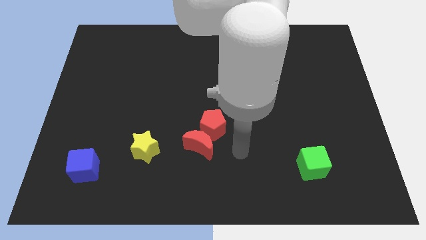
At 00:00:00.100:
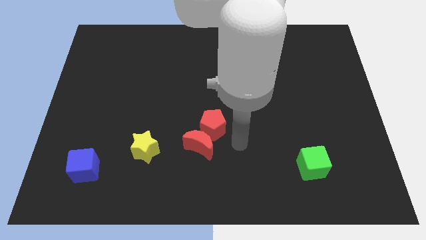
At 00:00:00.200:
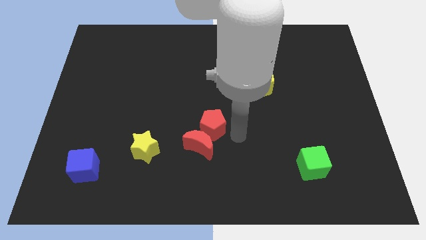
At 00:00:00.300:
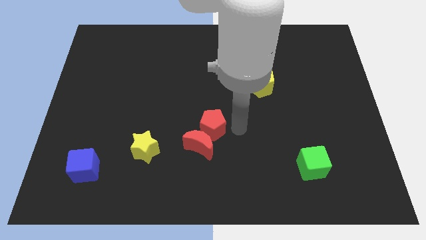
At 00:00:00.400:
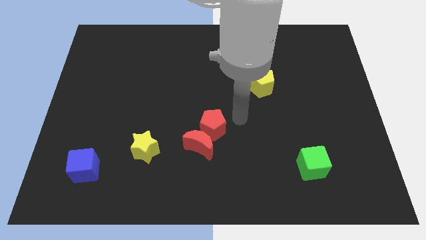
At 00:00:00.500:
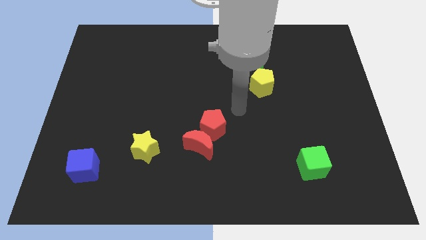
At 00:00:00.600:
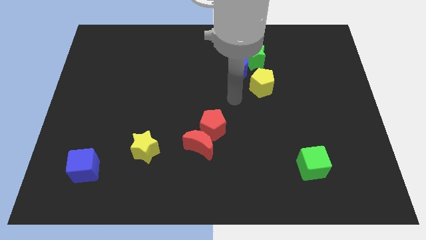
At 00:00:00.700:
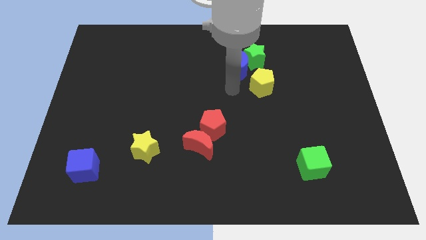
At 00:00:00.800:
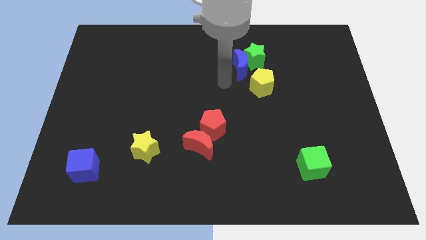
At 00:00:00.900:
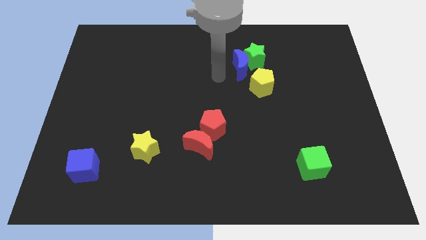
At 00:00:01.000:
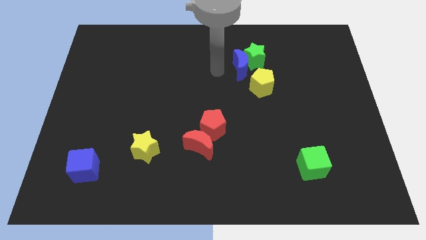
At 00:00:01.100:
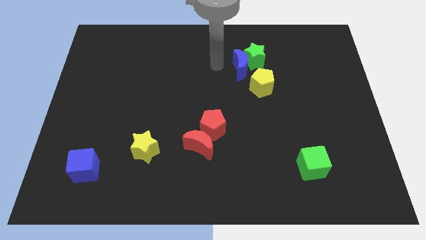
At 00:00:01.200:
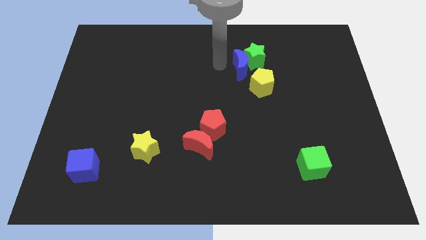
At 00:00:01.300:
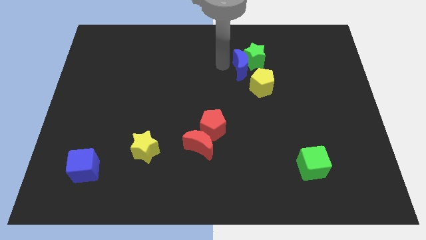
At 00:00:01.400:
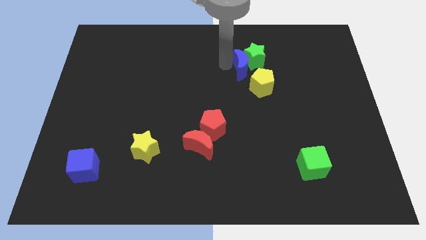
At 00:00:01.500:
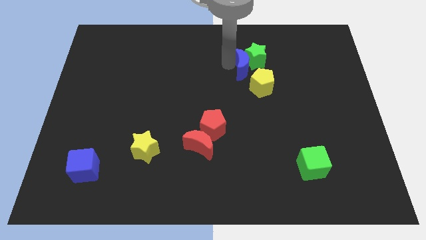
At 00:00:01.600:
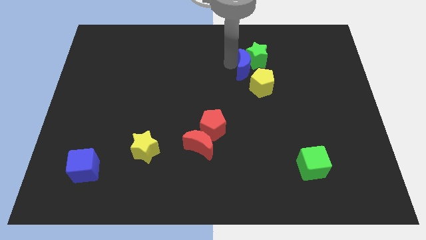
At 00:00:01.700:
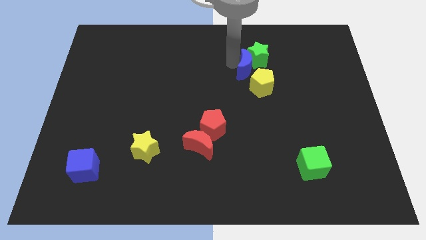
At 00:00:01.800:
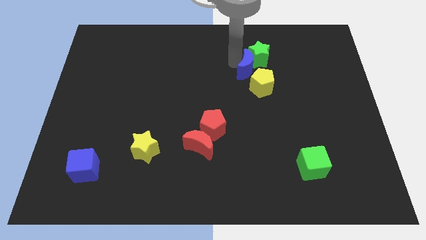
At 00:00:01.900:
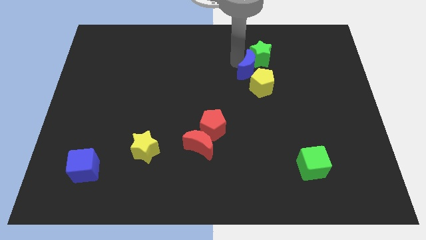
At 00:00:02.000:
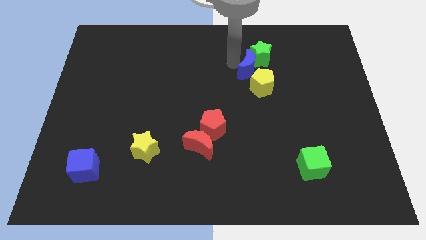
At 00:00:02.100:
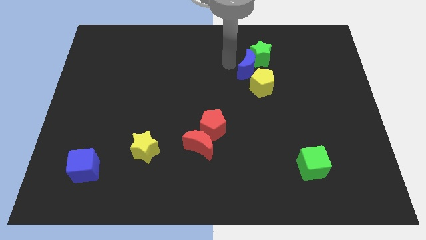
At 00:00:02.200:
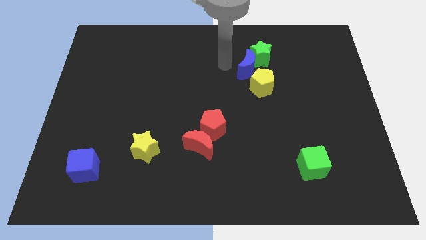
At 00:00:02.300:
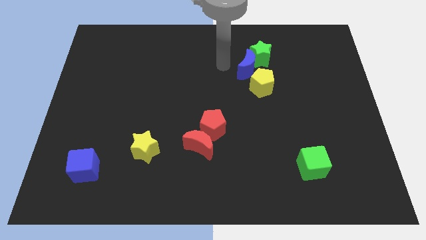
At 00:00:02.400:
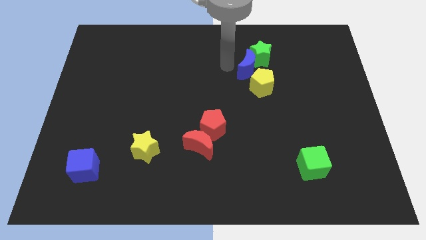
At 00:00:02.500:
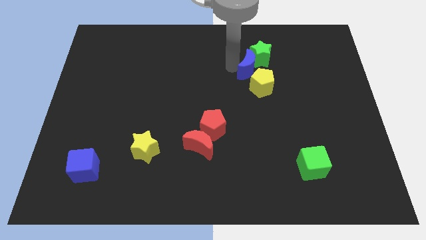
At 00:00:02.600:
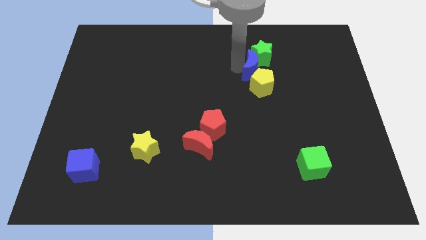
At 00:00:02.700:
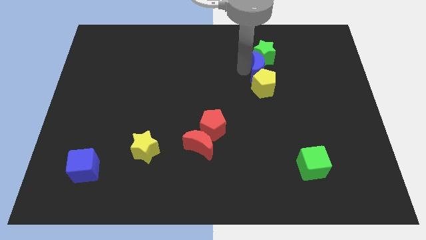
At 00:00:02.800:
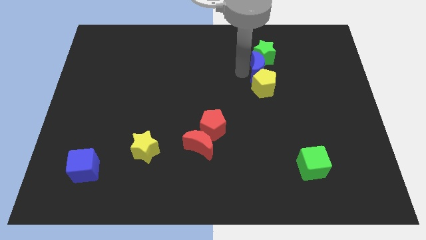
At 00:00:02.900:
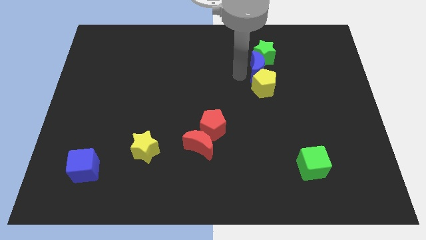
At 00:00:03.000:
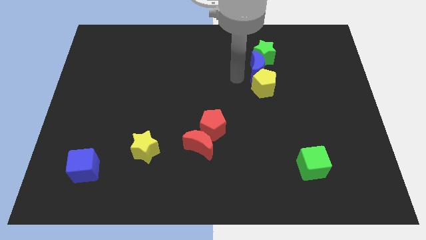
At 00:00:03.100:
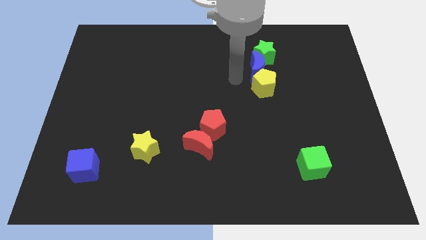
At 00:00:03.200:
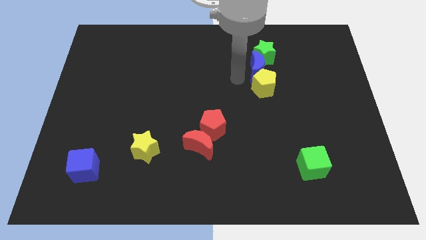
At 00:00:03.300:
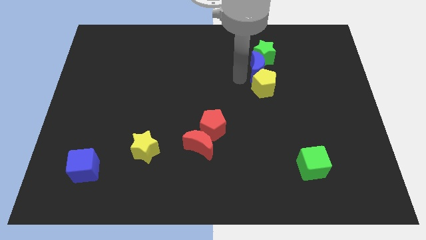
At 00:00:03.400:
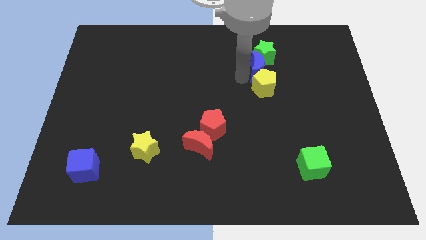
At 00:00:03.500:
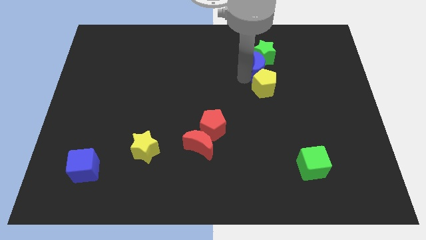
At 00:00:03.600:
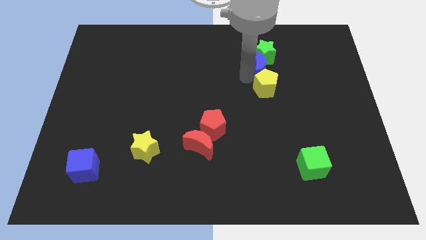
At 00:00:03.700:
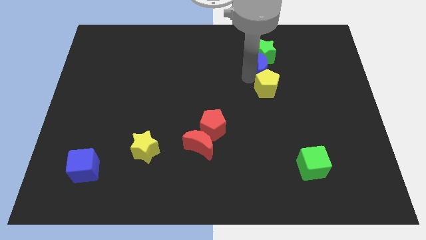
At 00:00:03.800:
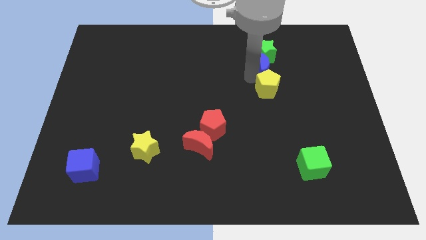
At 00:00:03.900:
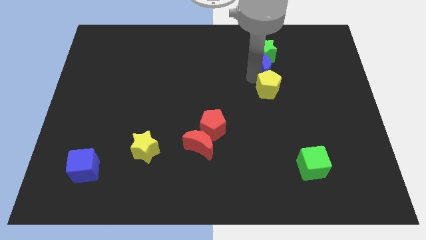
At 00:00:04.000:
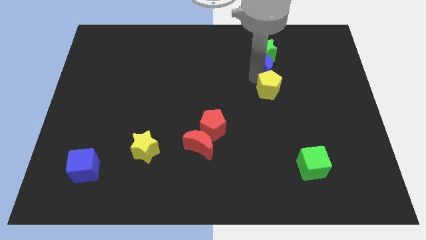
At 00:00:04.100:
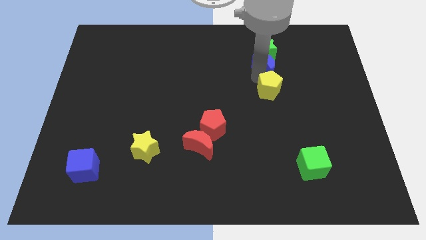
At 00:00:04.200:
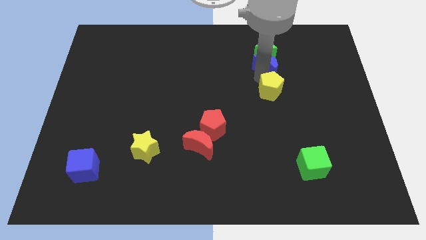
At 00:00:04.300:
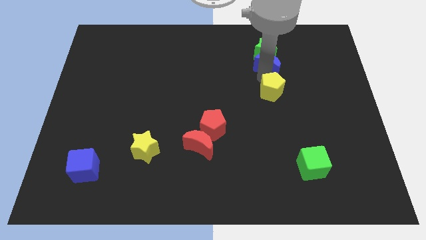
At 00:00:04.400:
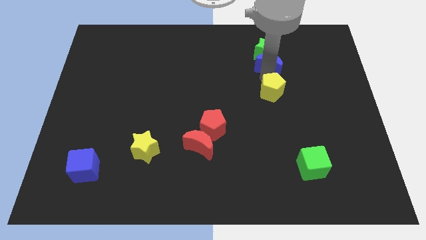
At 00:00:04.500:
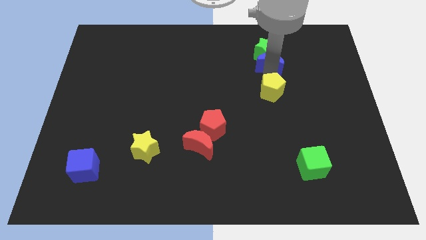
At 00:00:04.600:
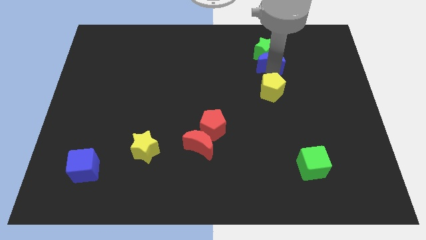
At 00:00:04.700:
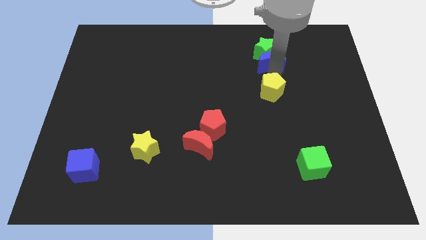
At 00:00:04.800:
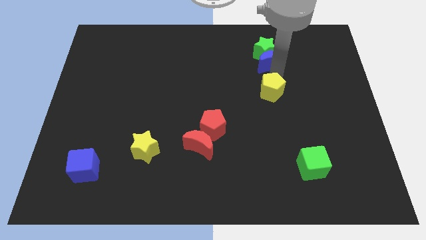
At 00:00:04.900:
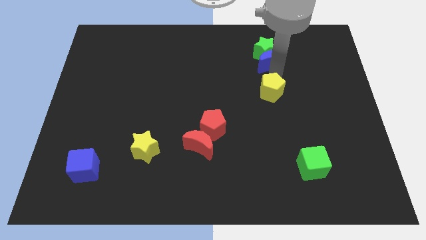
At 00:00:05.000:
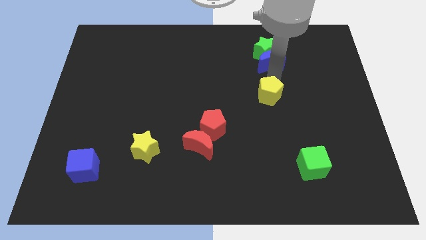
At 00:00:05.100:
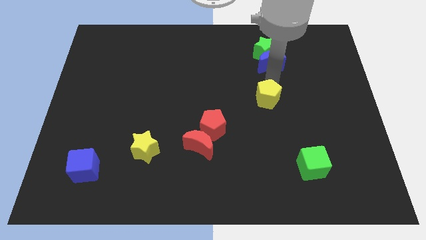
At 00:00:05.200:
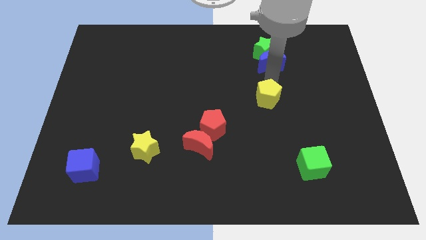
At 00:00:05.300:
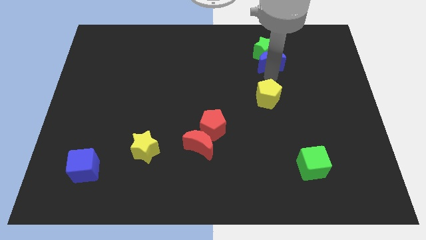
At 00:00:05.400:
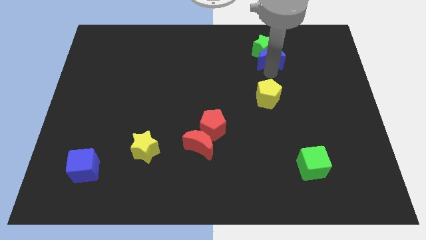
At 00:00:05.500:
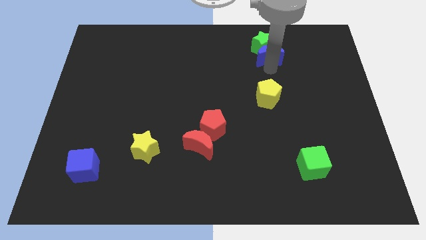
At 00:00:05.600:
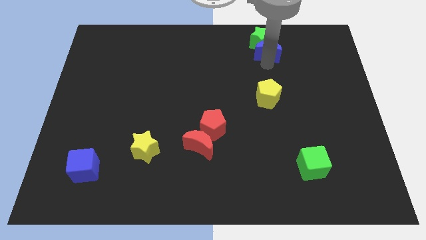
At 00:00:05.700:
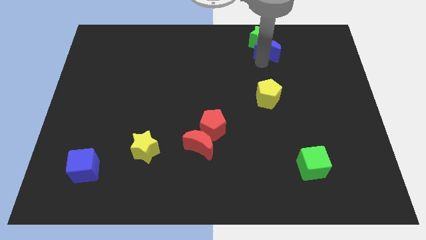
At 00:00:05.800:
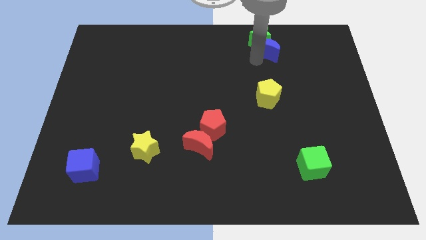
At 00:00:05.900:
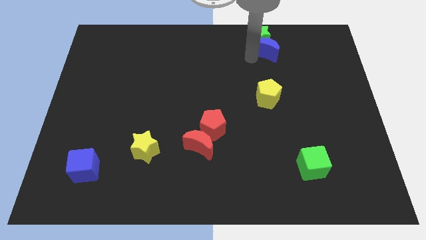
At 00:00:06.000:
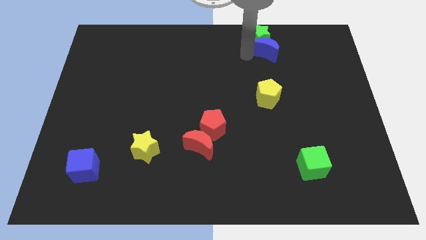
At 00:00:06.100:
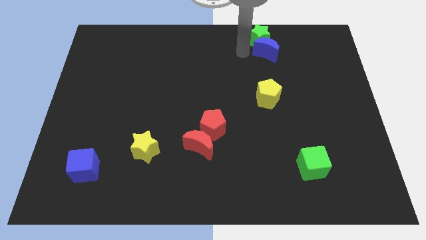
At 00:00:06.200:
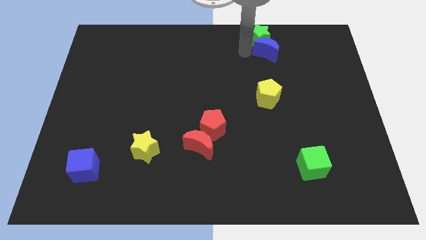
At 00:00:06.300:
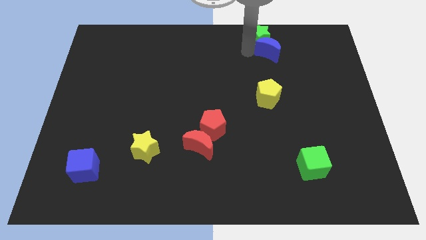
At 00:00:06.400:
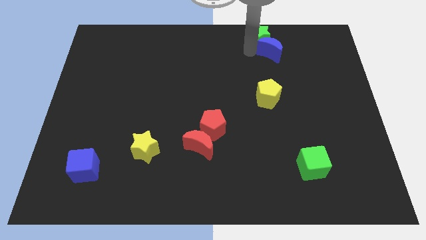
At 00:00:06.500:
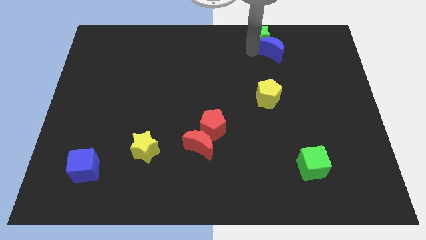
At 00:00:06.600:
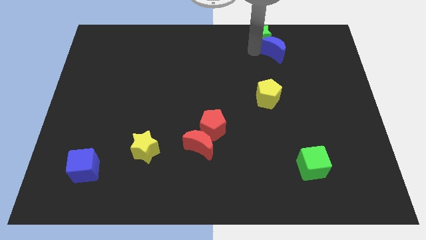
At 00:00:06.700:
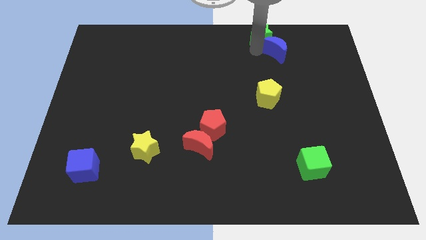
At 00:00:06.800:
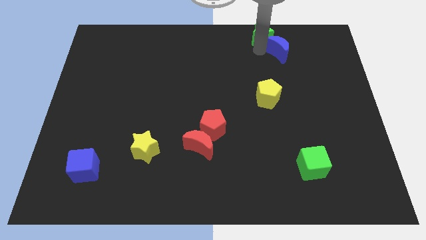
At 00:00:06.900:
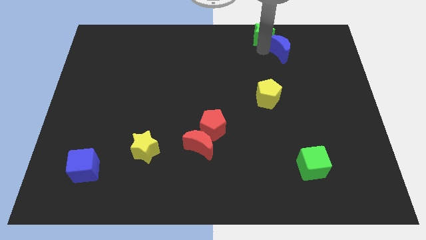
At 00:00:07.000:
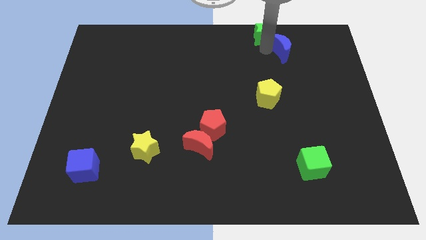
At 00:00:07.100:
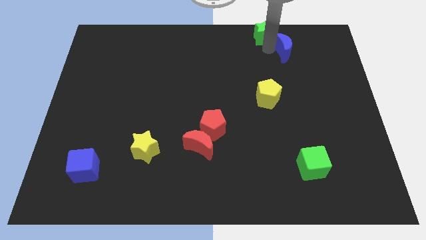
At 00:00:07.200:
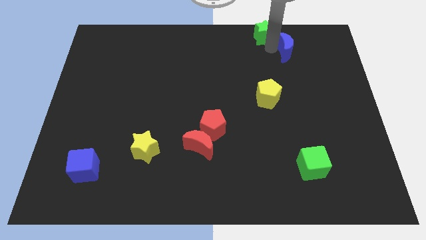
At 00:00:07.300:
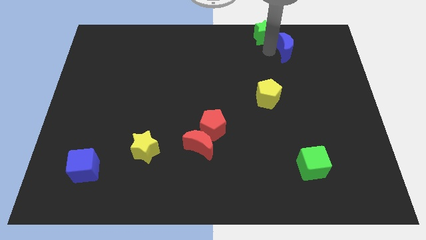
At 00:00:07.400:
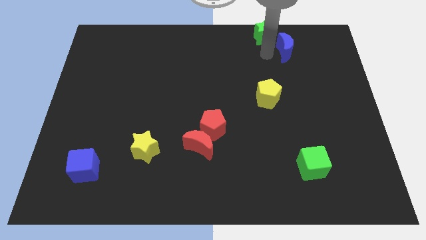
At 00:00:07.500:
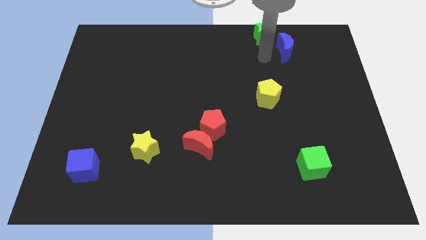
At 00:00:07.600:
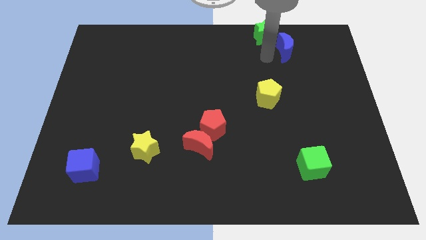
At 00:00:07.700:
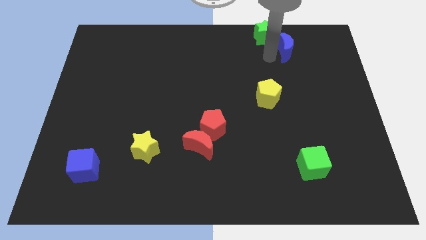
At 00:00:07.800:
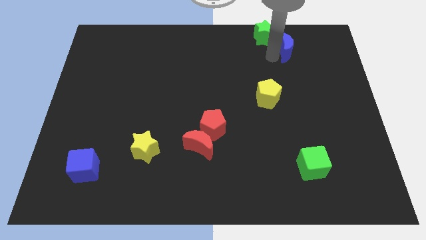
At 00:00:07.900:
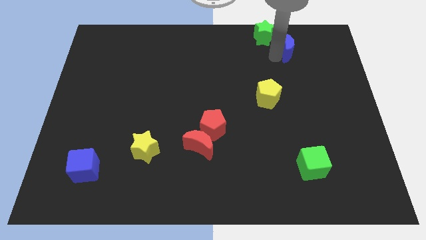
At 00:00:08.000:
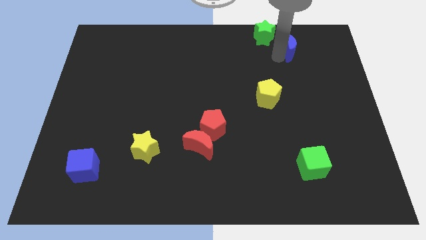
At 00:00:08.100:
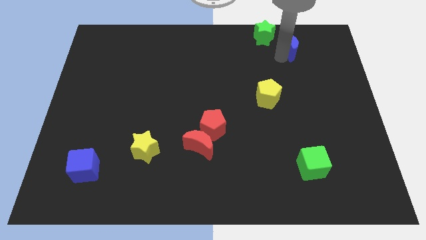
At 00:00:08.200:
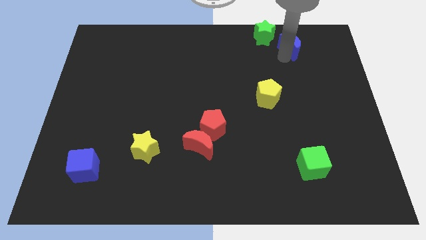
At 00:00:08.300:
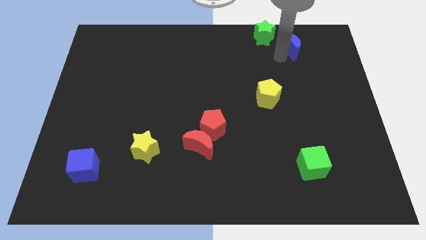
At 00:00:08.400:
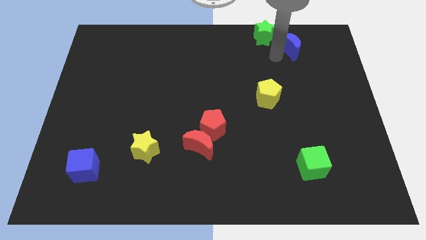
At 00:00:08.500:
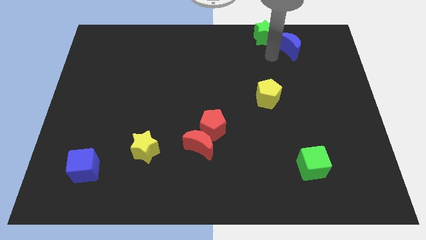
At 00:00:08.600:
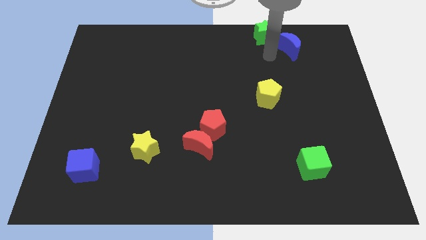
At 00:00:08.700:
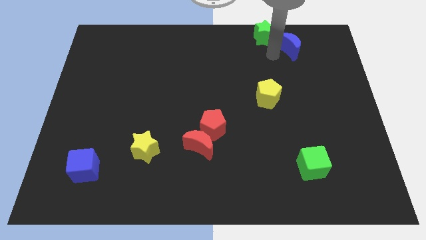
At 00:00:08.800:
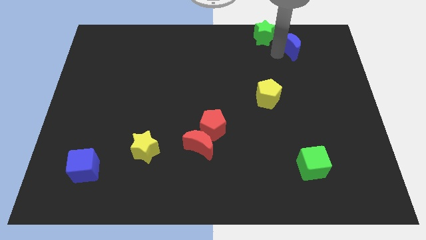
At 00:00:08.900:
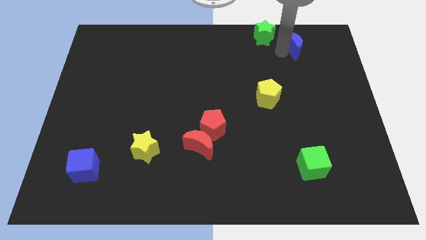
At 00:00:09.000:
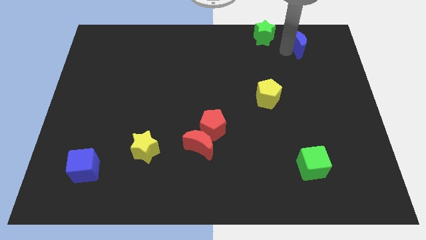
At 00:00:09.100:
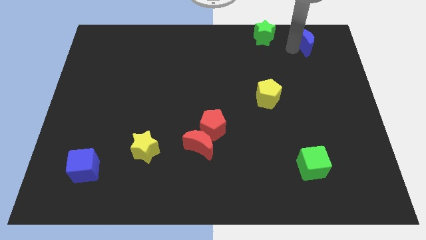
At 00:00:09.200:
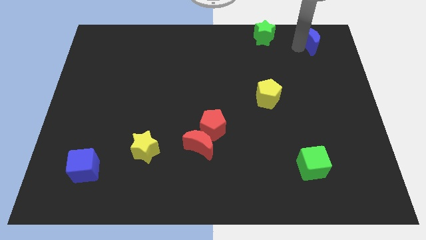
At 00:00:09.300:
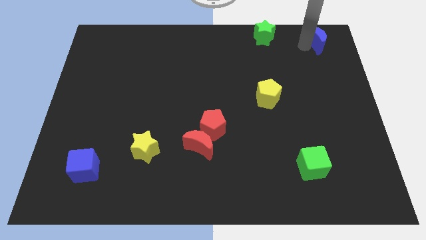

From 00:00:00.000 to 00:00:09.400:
push the blue moon to the top right
